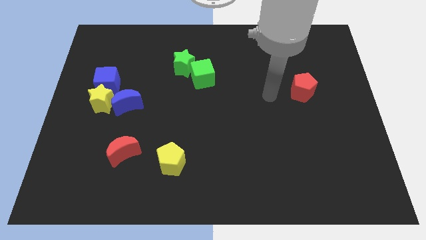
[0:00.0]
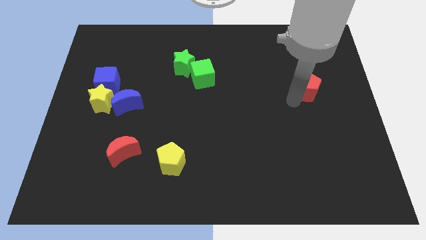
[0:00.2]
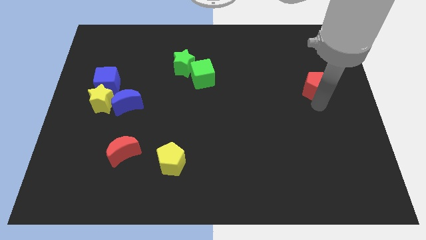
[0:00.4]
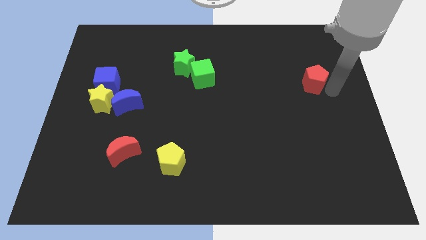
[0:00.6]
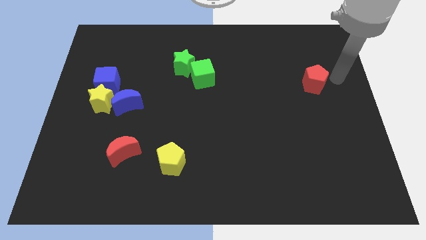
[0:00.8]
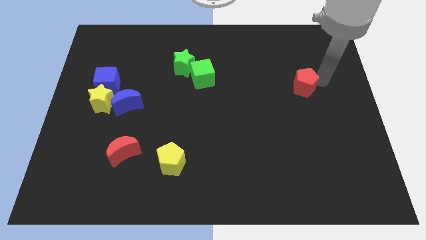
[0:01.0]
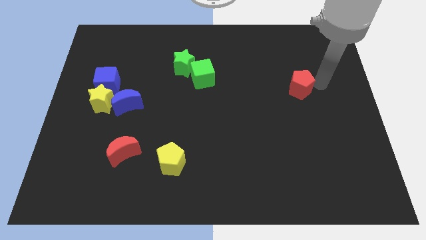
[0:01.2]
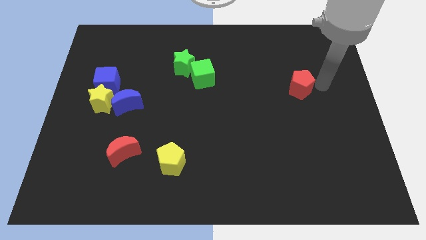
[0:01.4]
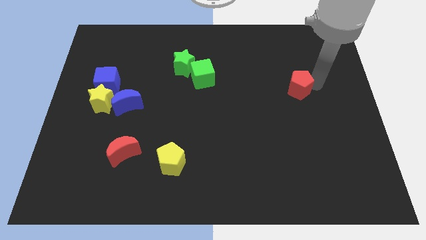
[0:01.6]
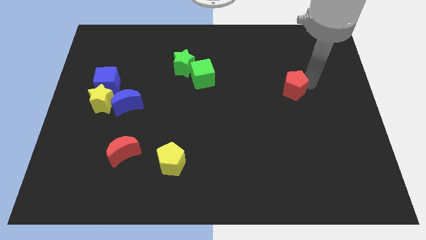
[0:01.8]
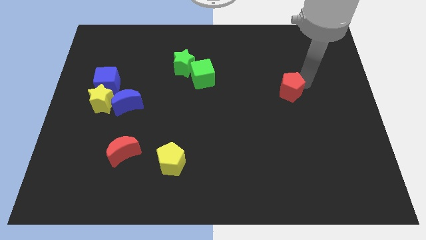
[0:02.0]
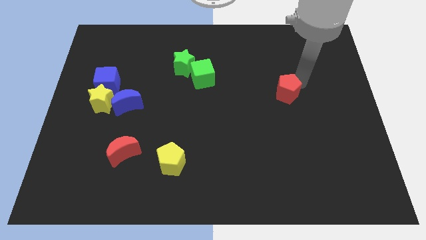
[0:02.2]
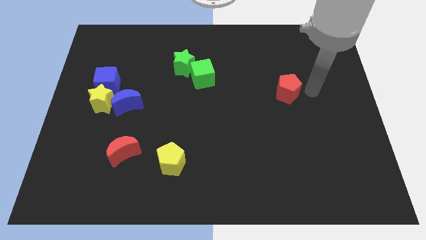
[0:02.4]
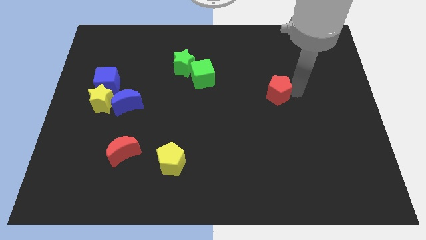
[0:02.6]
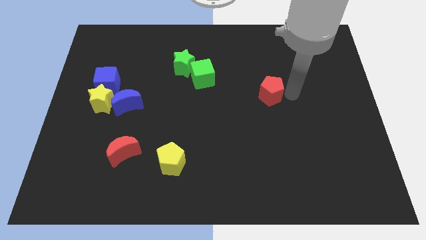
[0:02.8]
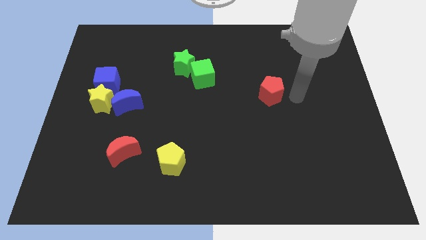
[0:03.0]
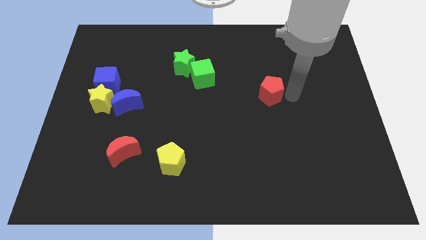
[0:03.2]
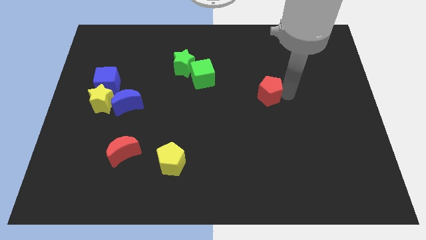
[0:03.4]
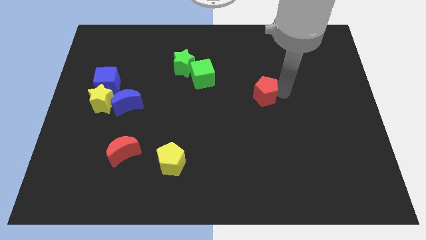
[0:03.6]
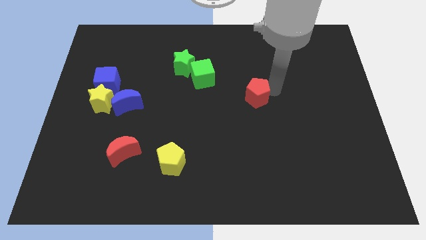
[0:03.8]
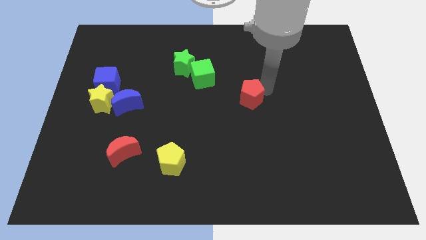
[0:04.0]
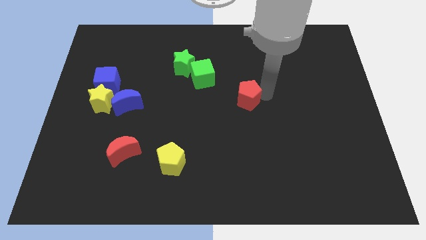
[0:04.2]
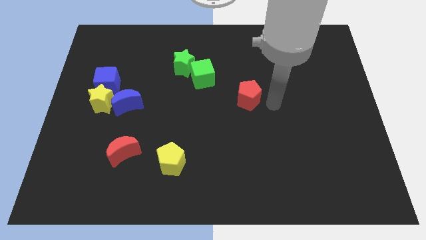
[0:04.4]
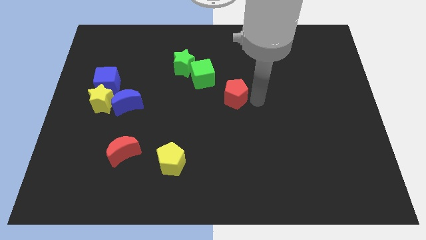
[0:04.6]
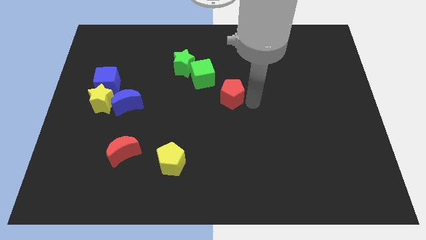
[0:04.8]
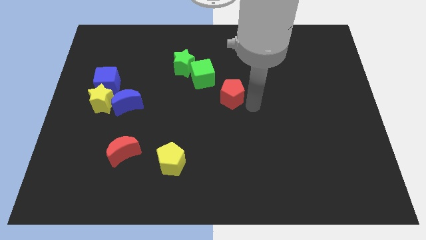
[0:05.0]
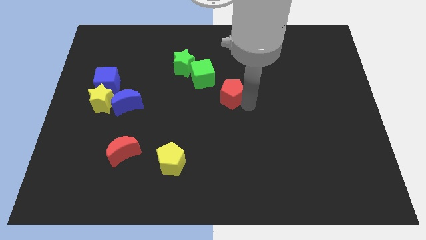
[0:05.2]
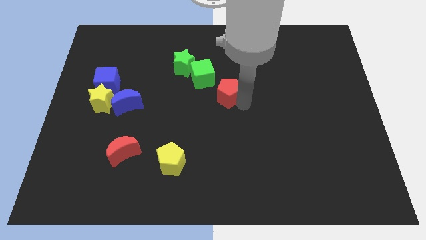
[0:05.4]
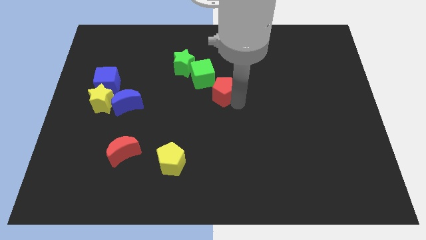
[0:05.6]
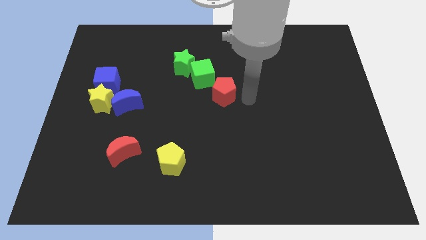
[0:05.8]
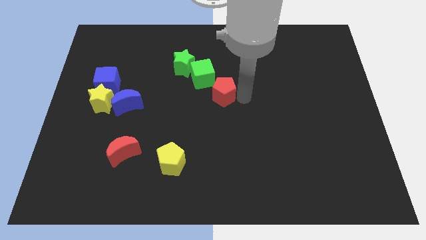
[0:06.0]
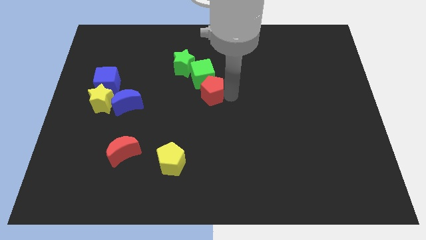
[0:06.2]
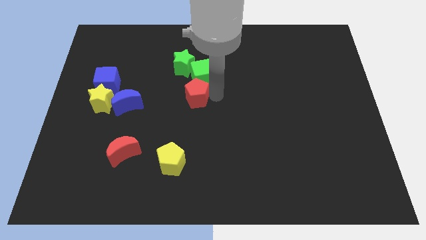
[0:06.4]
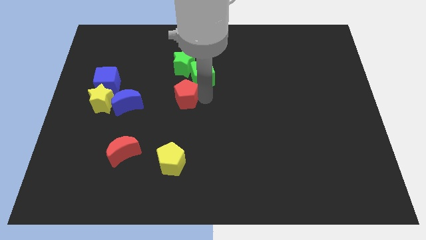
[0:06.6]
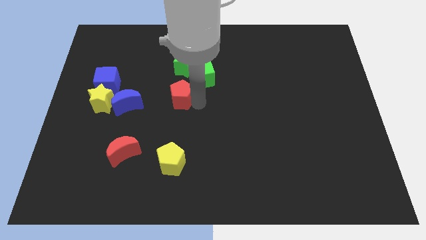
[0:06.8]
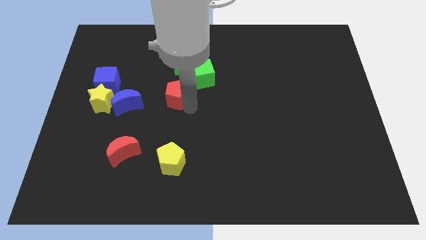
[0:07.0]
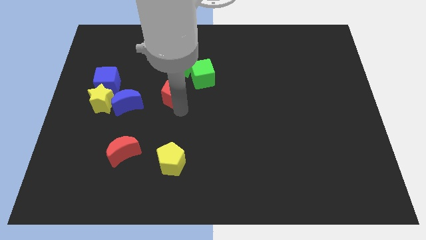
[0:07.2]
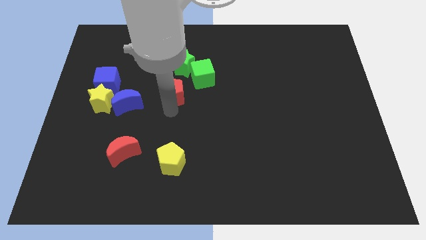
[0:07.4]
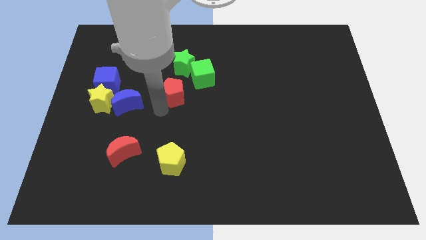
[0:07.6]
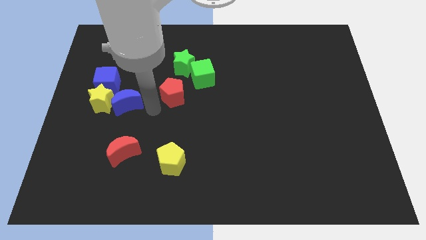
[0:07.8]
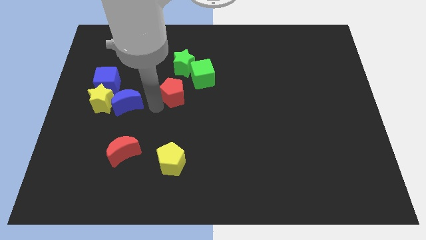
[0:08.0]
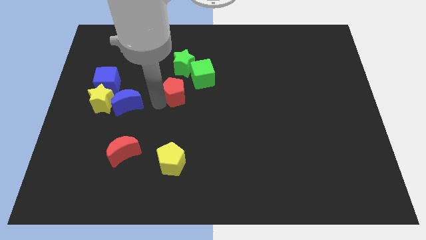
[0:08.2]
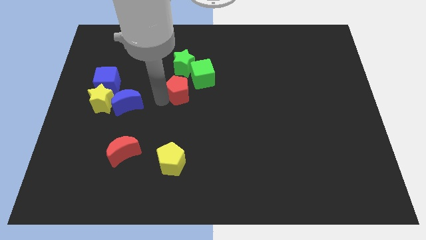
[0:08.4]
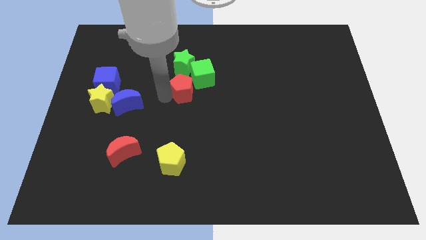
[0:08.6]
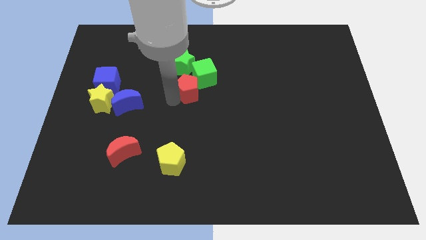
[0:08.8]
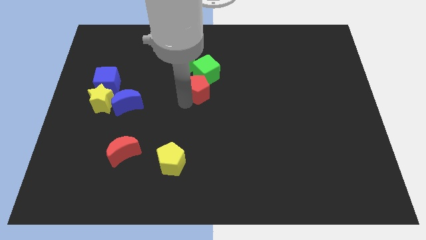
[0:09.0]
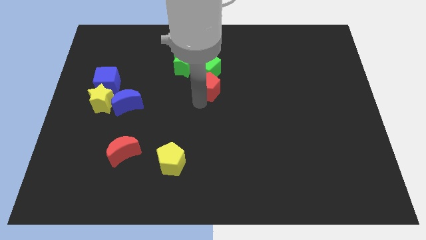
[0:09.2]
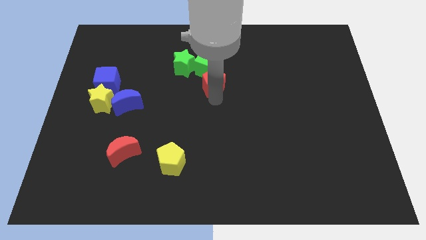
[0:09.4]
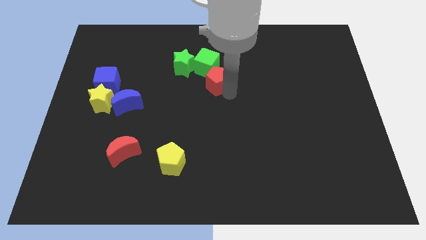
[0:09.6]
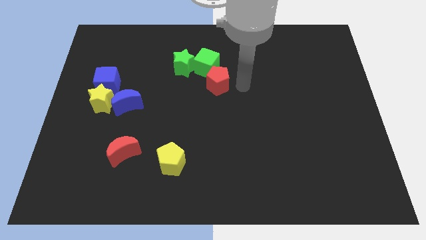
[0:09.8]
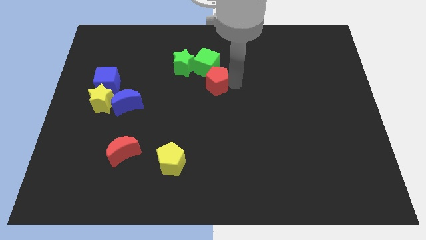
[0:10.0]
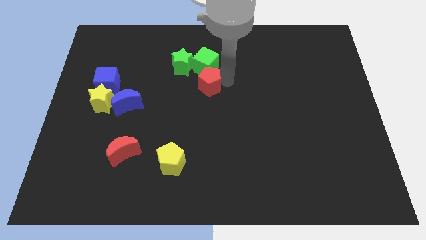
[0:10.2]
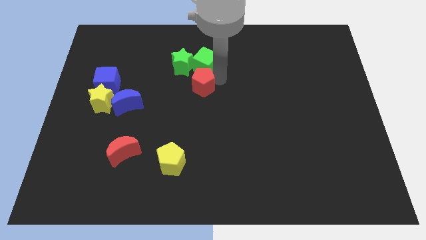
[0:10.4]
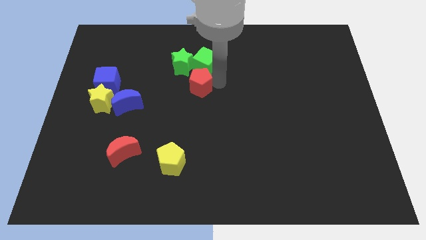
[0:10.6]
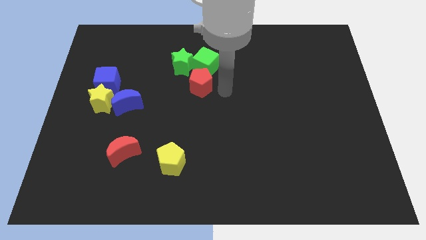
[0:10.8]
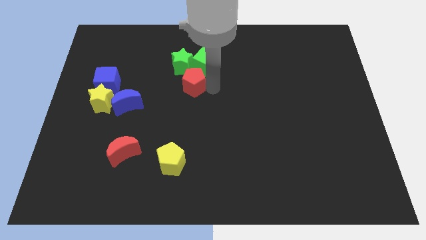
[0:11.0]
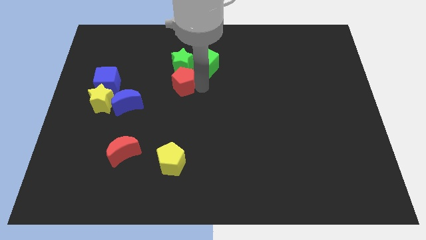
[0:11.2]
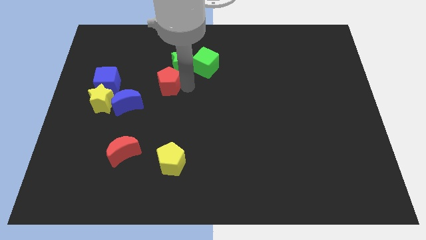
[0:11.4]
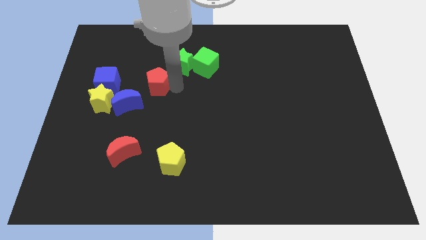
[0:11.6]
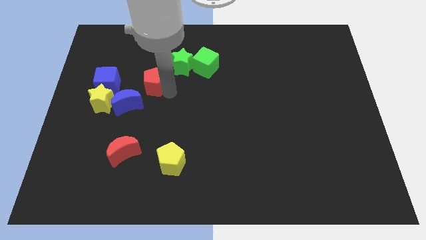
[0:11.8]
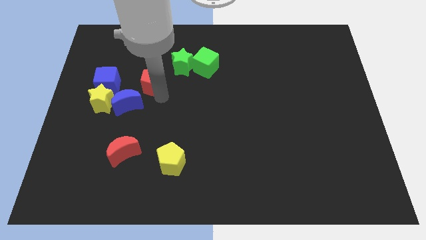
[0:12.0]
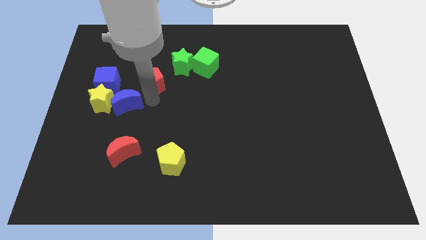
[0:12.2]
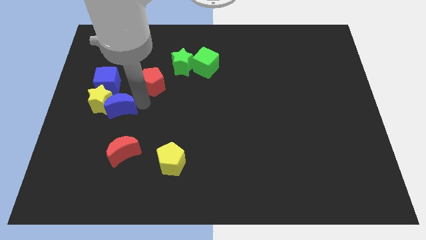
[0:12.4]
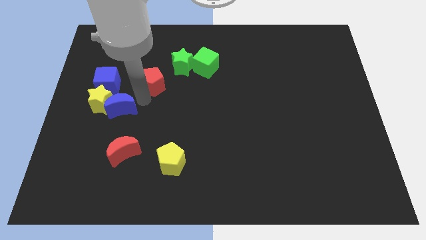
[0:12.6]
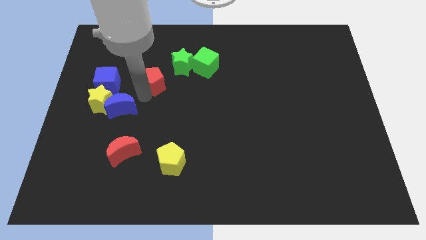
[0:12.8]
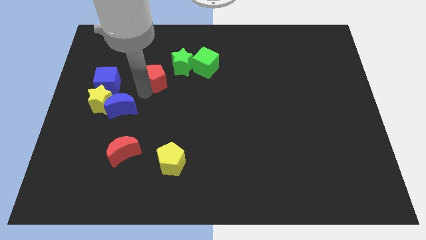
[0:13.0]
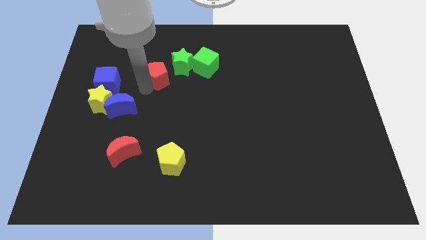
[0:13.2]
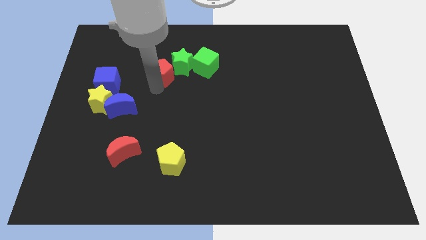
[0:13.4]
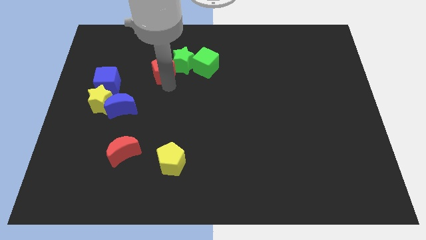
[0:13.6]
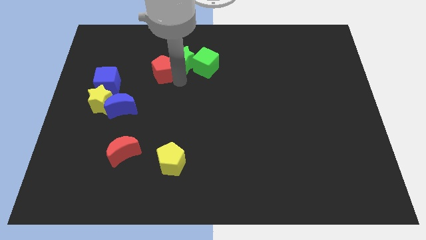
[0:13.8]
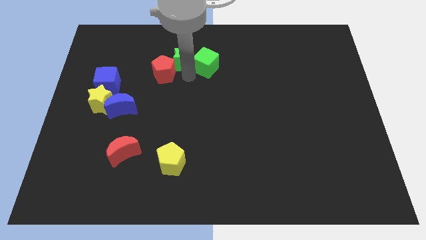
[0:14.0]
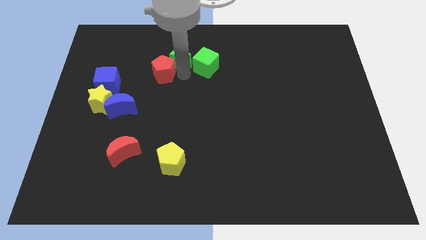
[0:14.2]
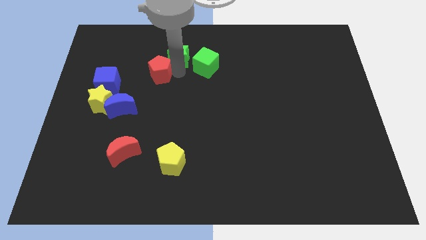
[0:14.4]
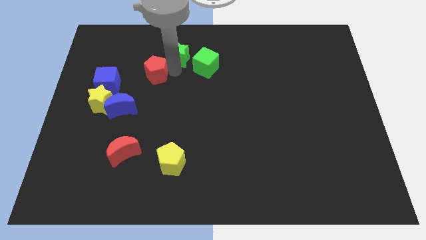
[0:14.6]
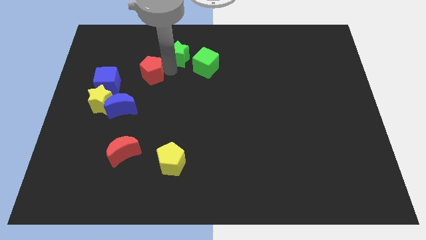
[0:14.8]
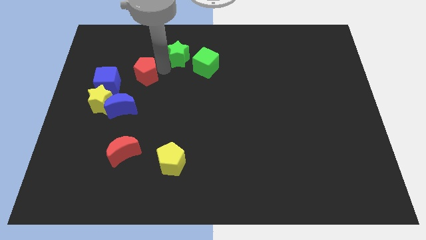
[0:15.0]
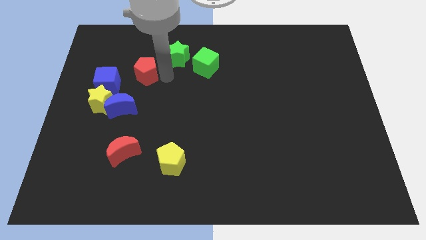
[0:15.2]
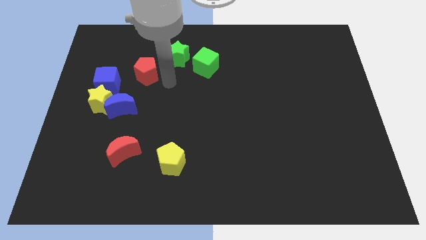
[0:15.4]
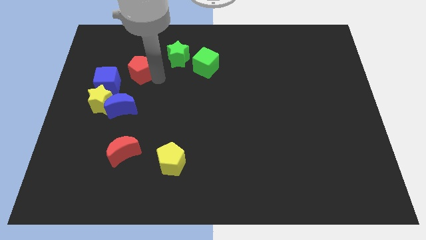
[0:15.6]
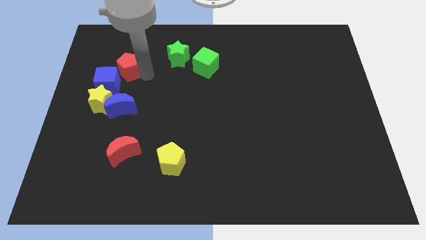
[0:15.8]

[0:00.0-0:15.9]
push the red pentagon above the blue cube

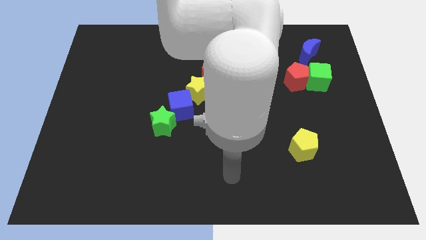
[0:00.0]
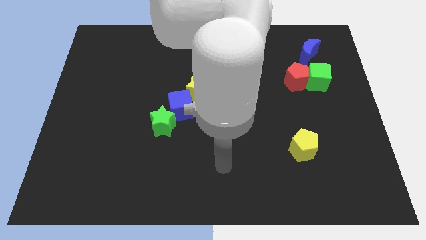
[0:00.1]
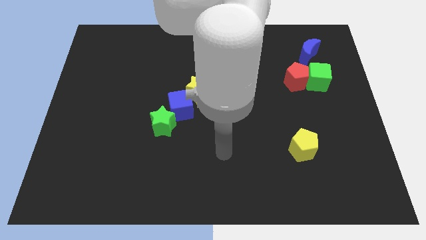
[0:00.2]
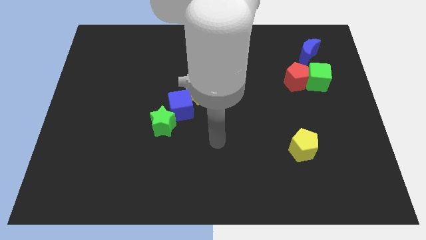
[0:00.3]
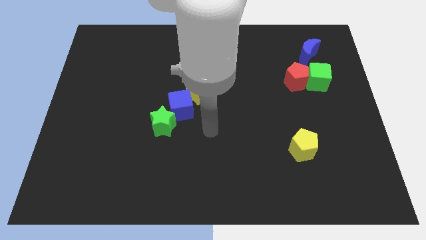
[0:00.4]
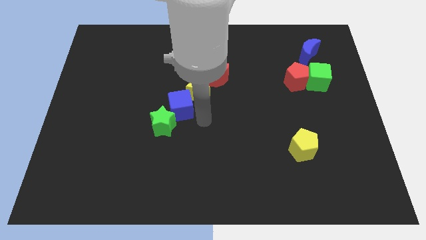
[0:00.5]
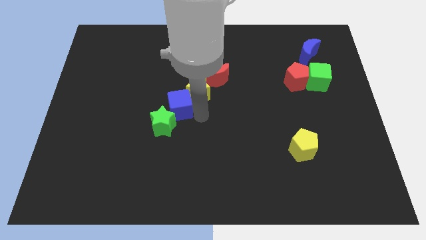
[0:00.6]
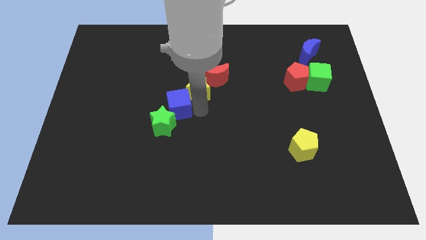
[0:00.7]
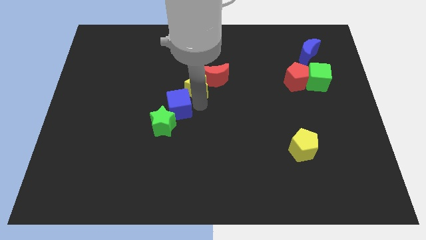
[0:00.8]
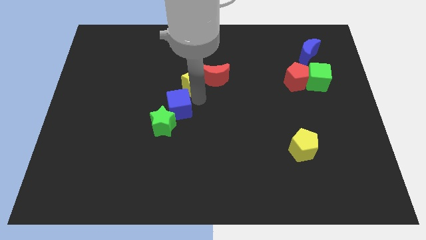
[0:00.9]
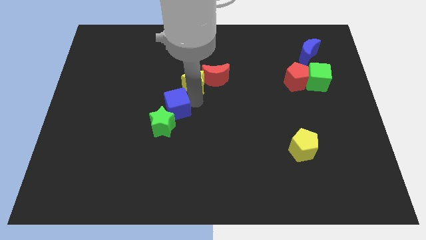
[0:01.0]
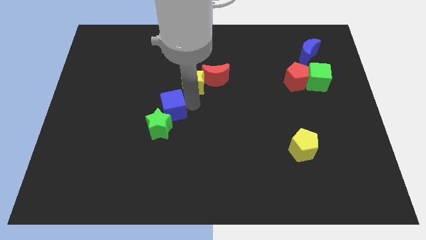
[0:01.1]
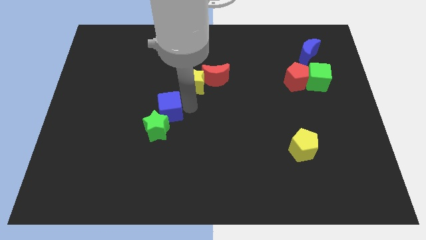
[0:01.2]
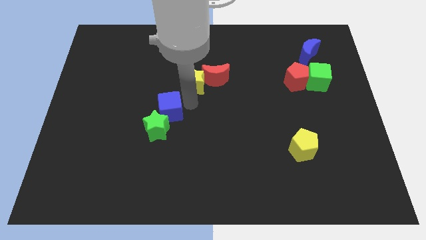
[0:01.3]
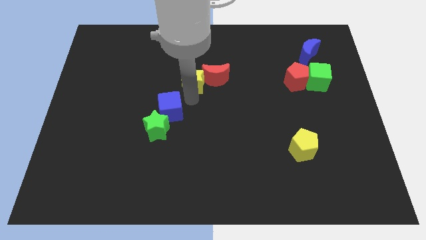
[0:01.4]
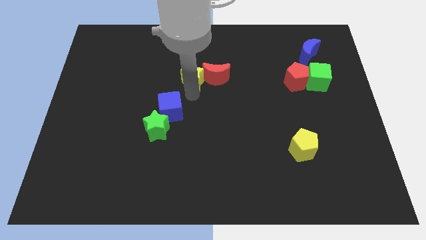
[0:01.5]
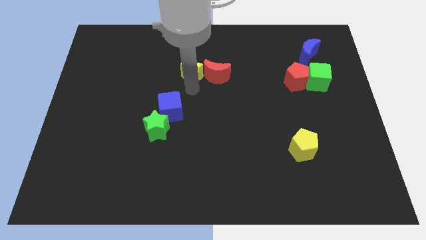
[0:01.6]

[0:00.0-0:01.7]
put the yellow star diagonally up and to the left of the red moon
